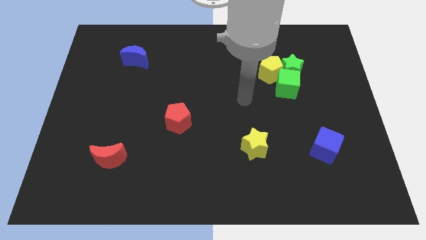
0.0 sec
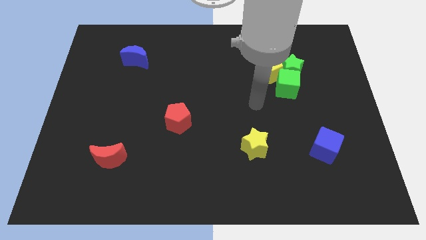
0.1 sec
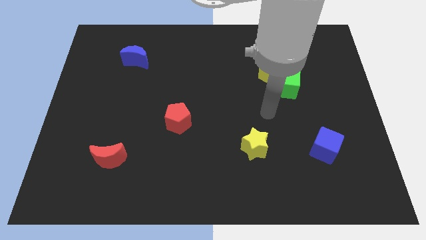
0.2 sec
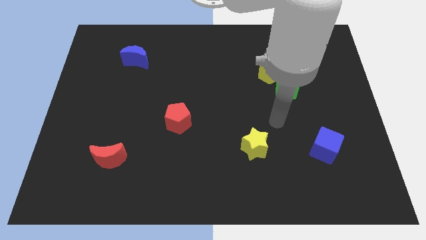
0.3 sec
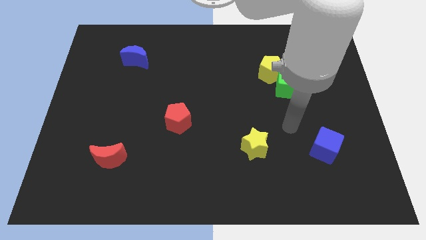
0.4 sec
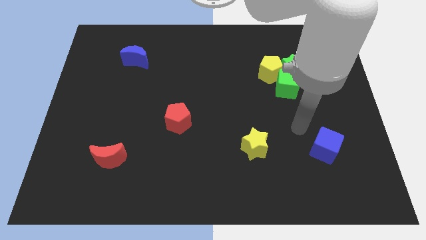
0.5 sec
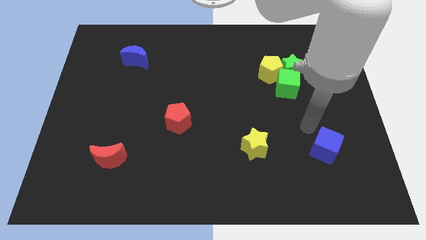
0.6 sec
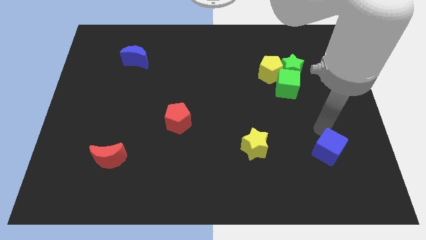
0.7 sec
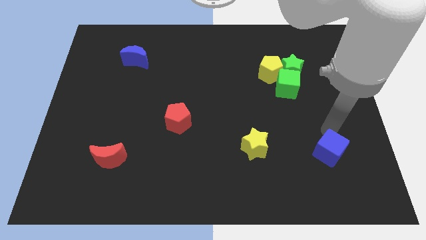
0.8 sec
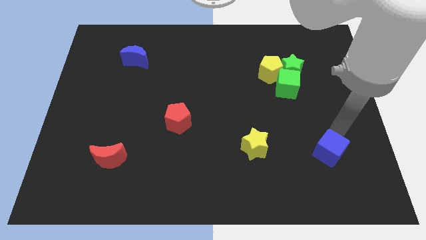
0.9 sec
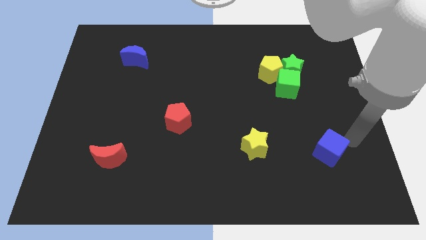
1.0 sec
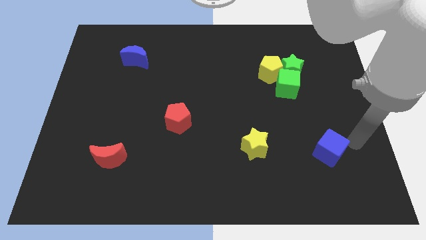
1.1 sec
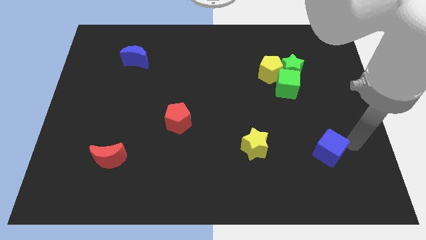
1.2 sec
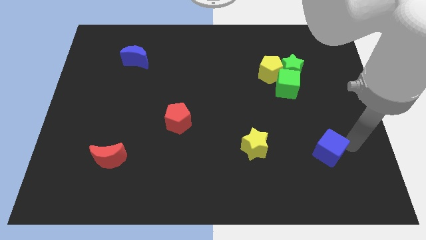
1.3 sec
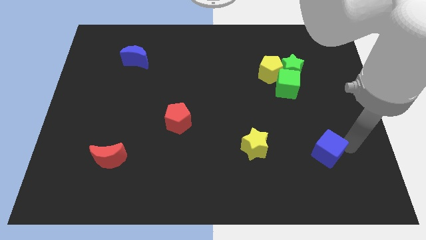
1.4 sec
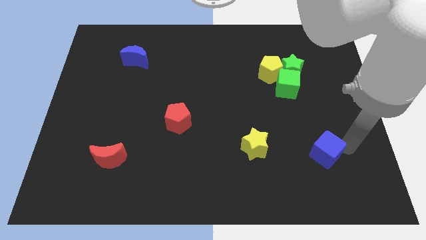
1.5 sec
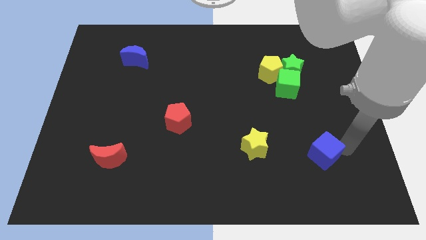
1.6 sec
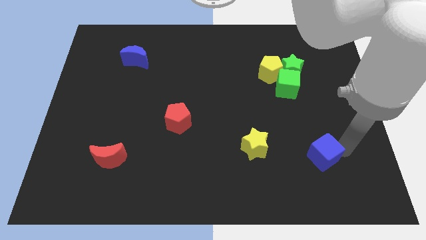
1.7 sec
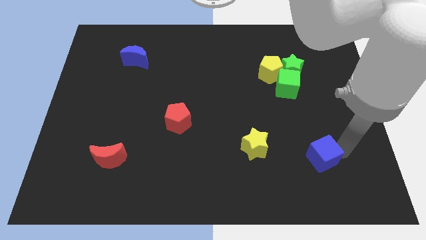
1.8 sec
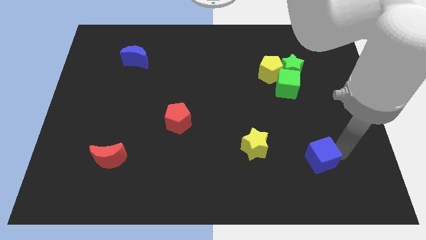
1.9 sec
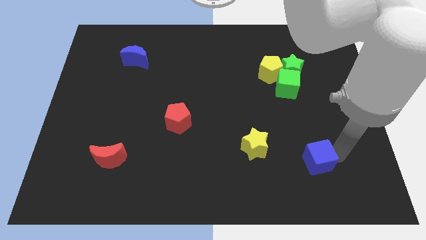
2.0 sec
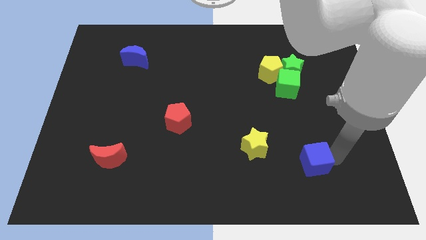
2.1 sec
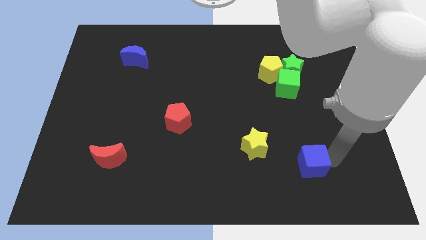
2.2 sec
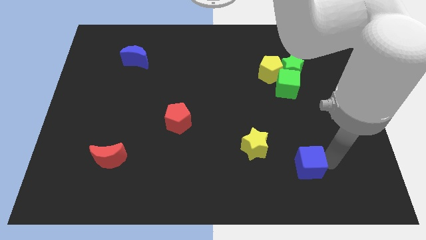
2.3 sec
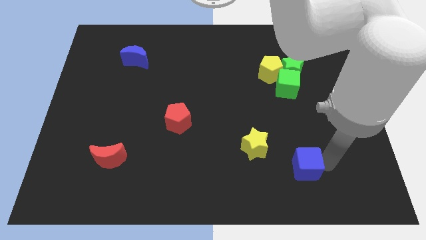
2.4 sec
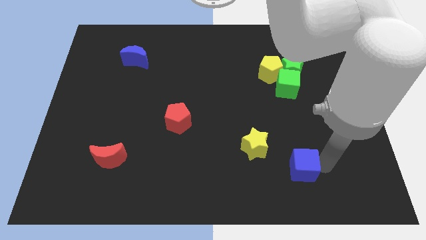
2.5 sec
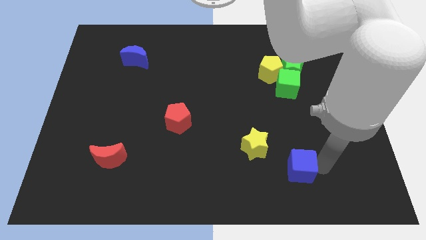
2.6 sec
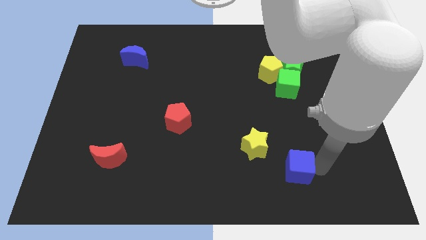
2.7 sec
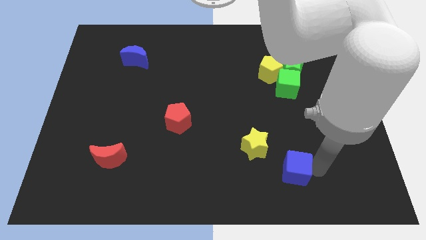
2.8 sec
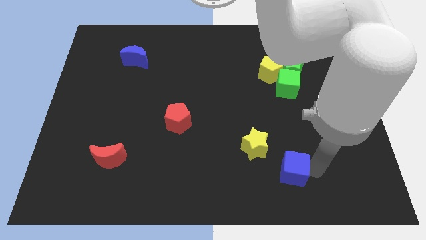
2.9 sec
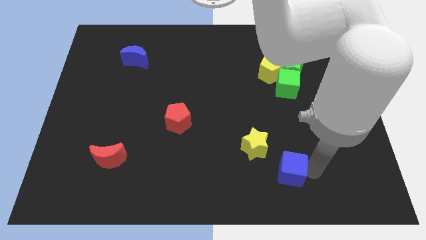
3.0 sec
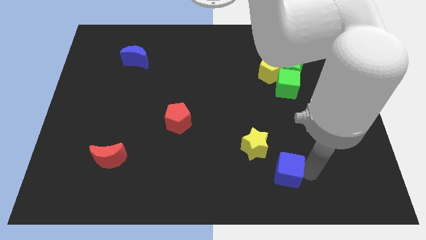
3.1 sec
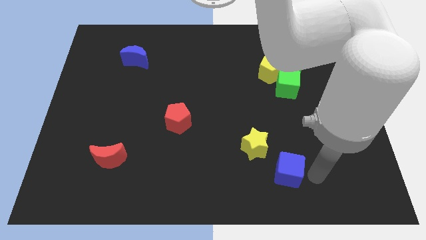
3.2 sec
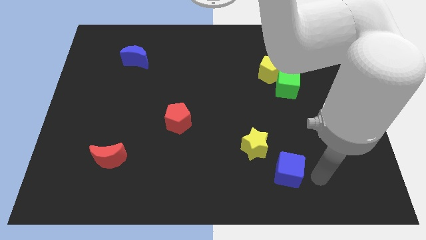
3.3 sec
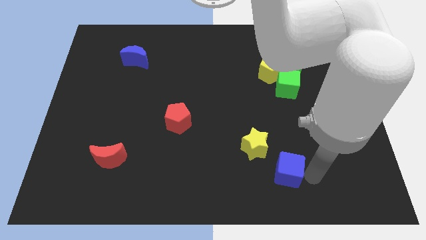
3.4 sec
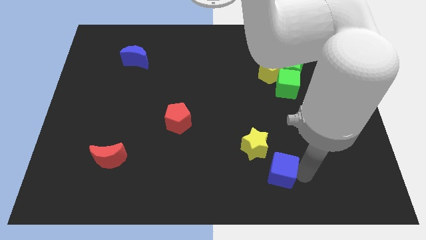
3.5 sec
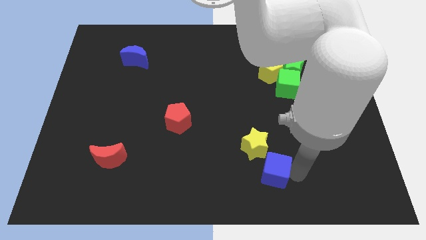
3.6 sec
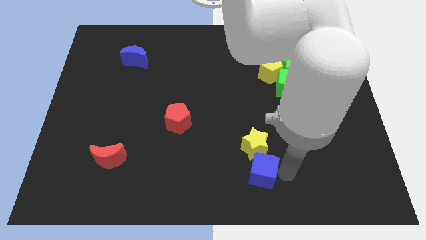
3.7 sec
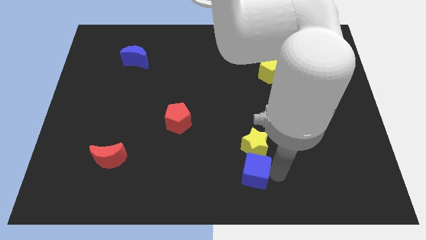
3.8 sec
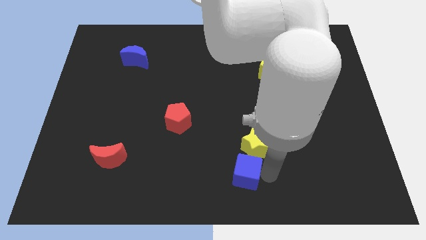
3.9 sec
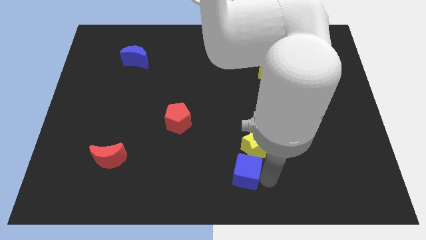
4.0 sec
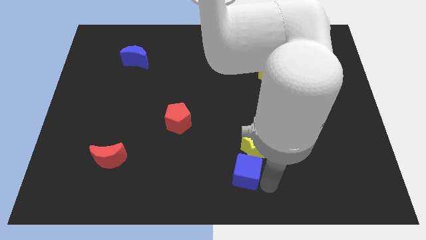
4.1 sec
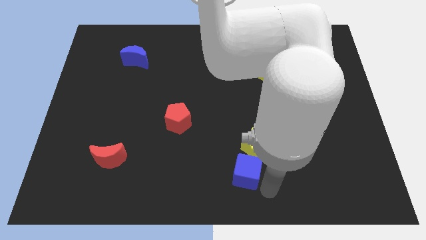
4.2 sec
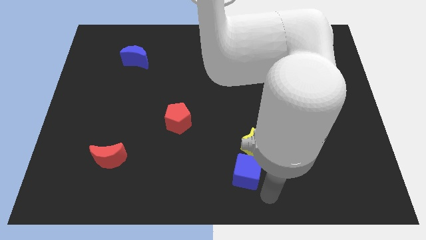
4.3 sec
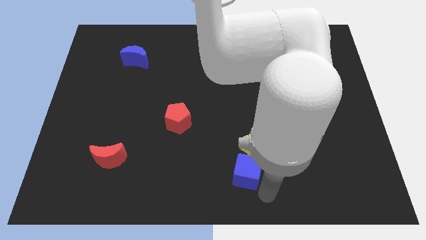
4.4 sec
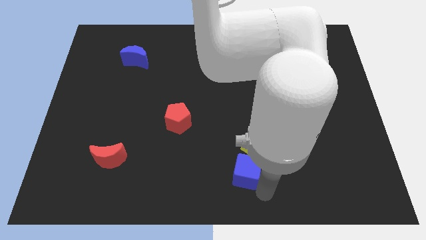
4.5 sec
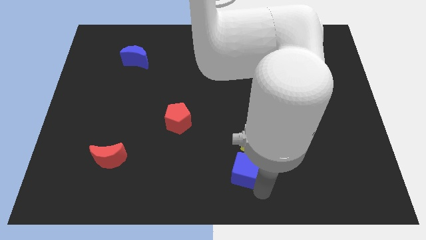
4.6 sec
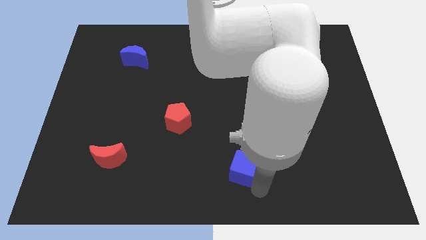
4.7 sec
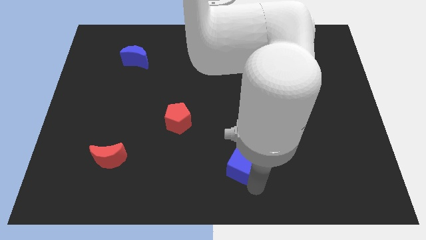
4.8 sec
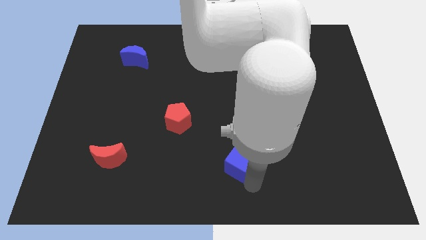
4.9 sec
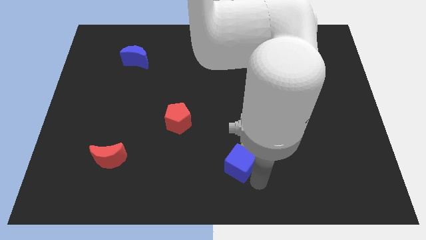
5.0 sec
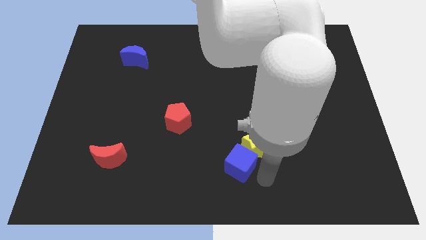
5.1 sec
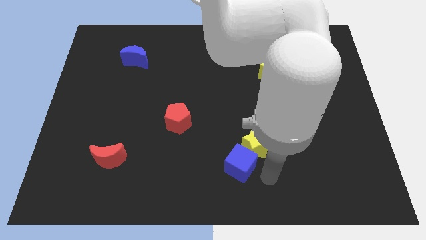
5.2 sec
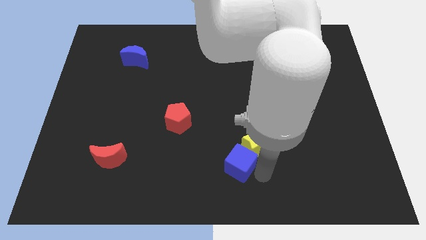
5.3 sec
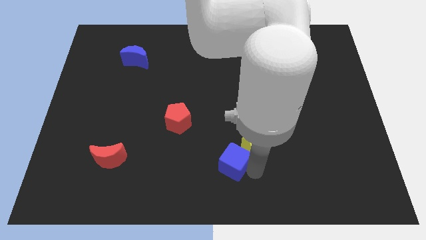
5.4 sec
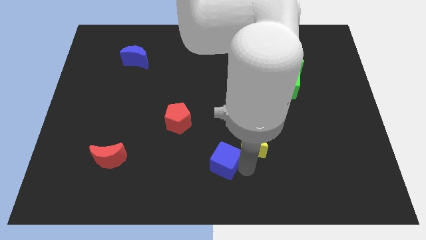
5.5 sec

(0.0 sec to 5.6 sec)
push the blue cube left

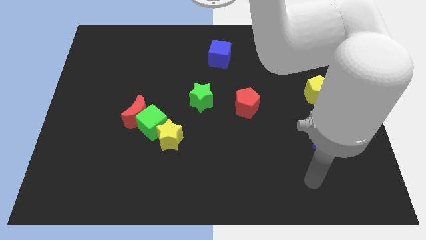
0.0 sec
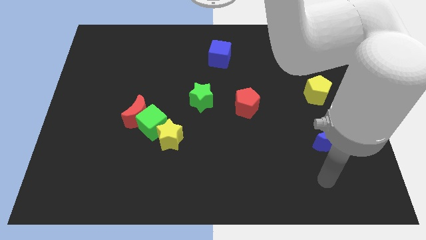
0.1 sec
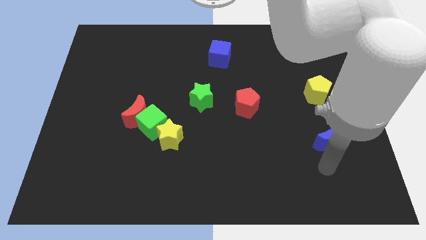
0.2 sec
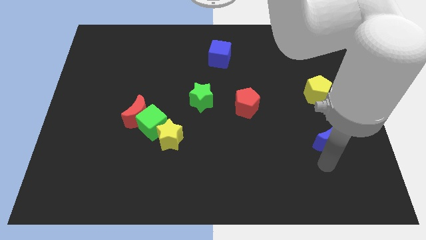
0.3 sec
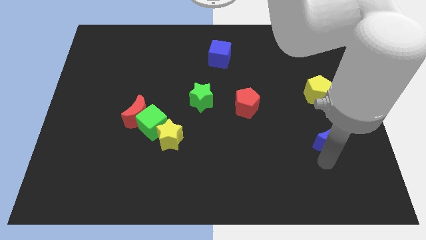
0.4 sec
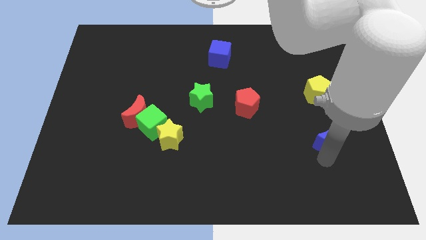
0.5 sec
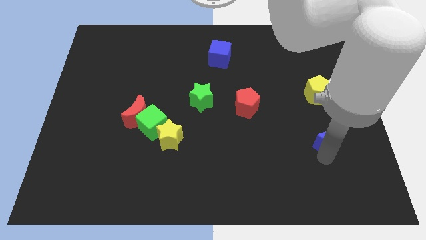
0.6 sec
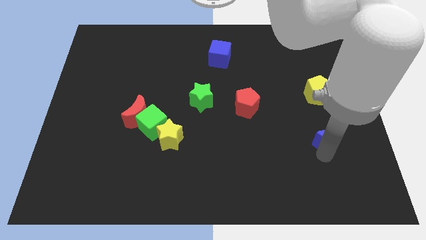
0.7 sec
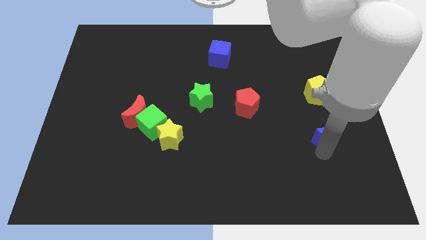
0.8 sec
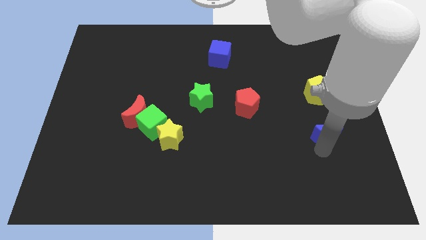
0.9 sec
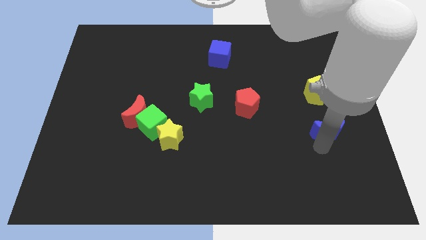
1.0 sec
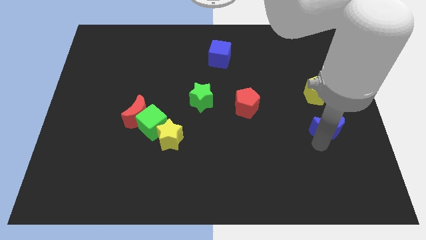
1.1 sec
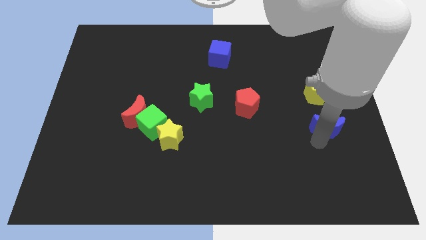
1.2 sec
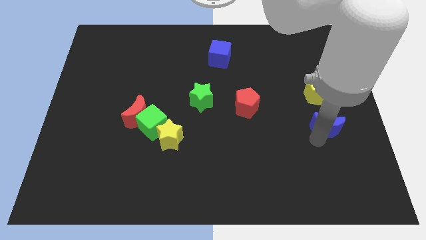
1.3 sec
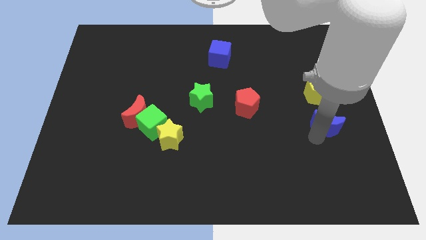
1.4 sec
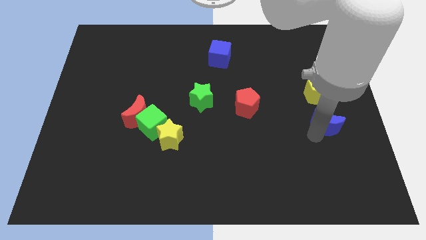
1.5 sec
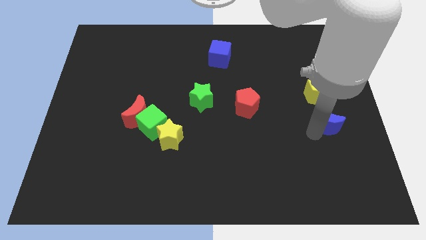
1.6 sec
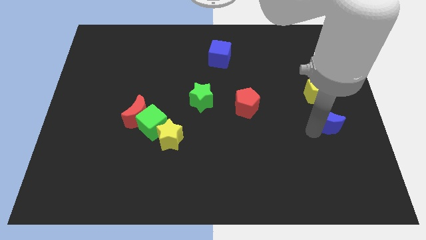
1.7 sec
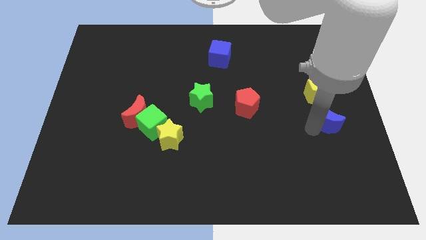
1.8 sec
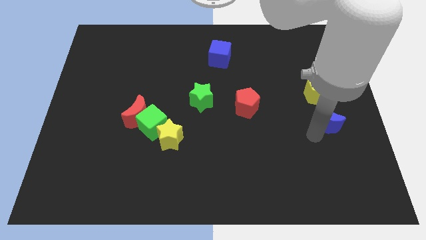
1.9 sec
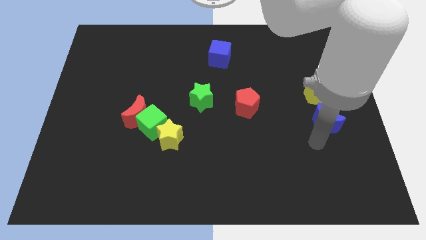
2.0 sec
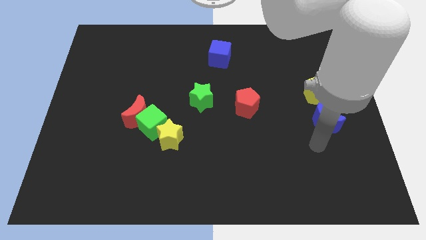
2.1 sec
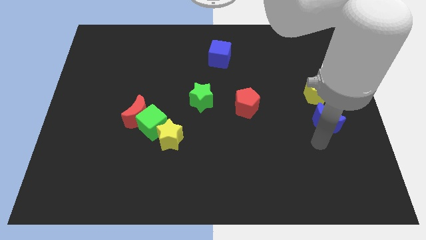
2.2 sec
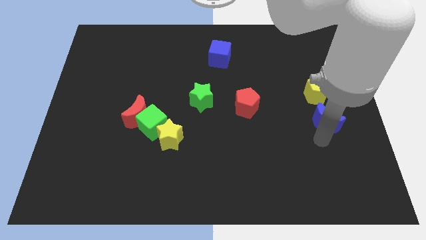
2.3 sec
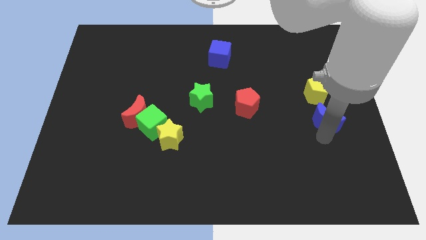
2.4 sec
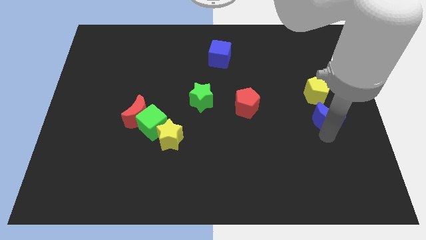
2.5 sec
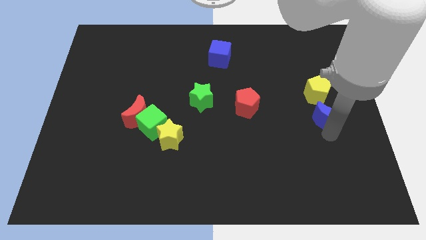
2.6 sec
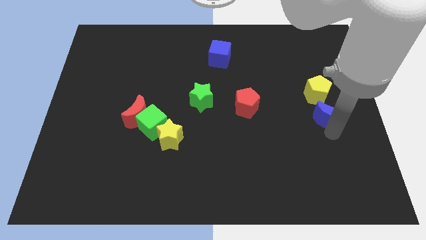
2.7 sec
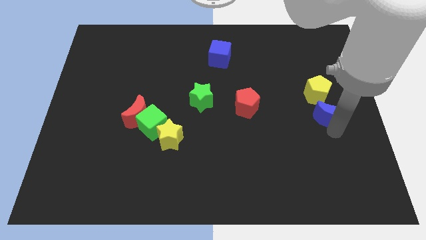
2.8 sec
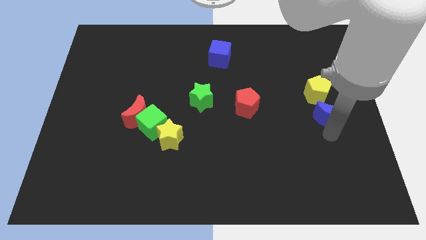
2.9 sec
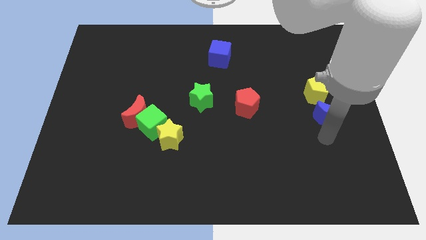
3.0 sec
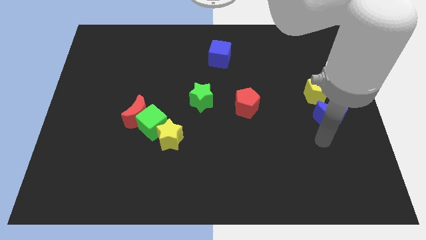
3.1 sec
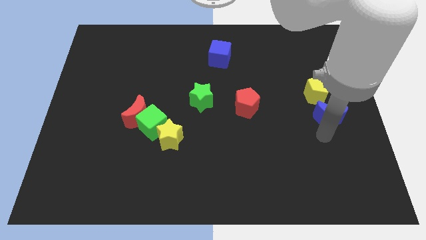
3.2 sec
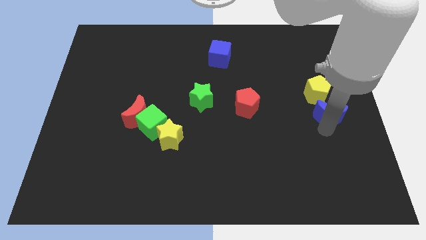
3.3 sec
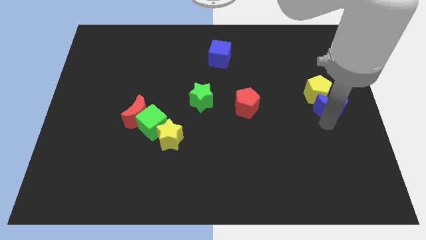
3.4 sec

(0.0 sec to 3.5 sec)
slide the blue moon a little bit upwards
